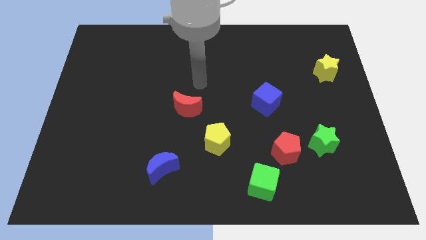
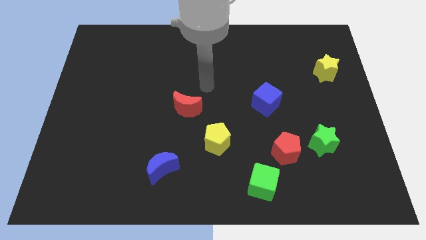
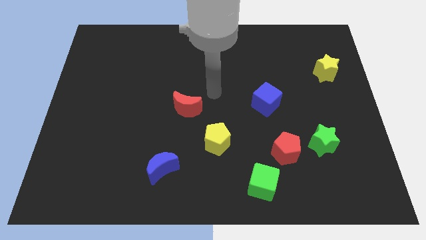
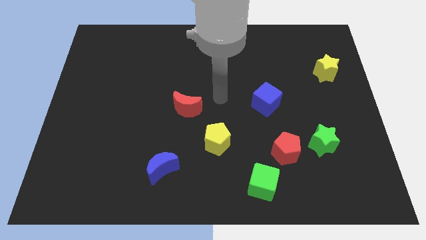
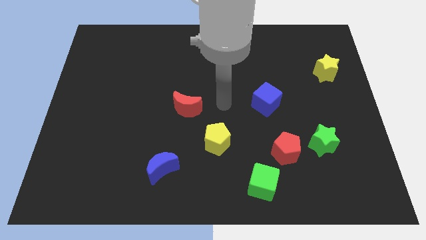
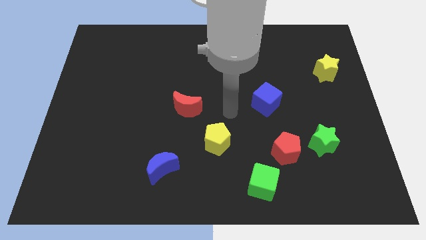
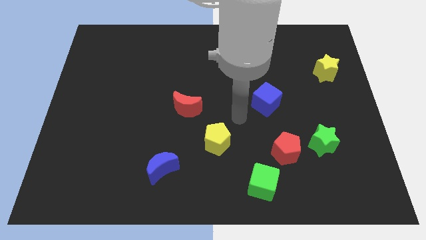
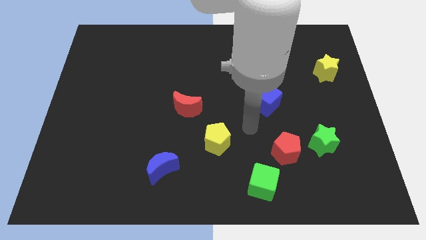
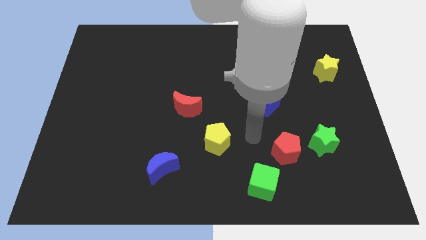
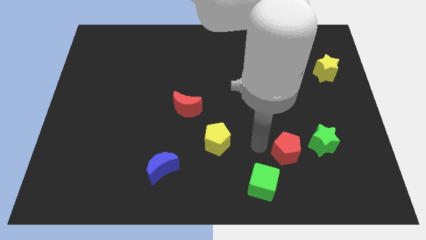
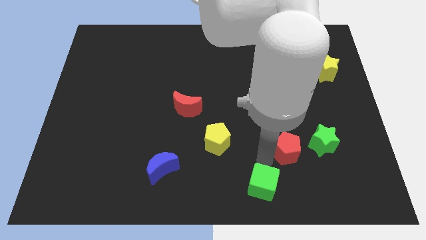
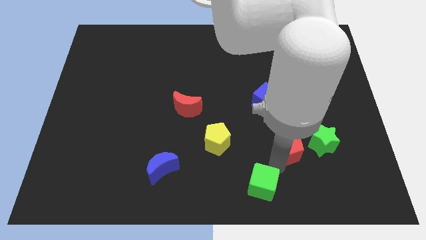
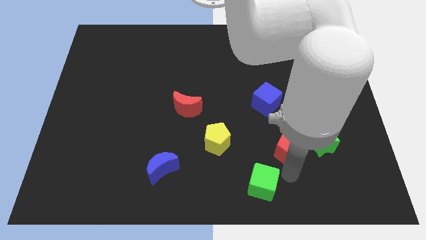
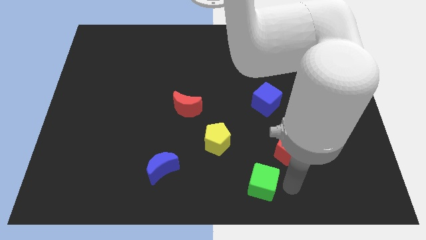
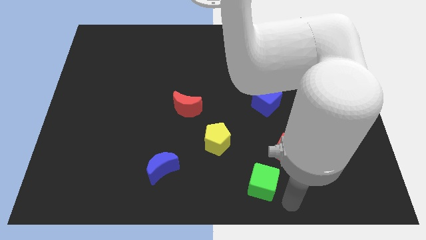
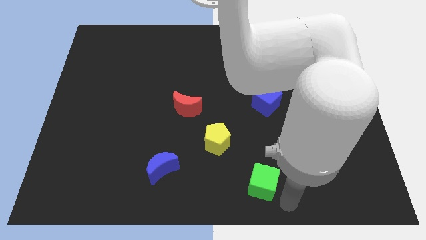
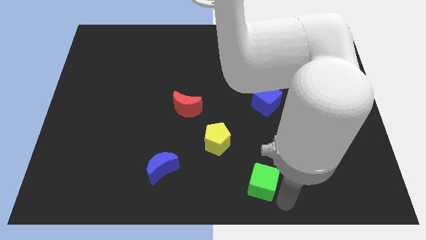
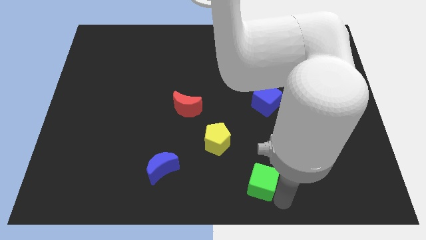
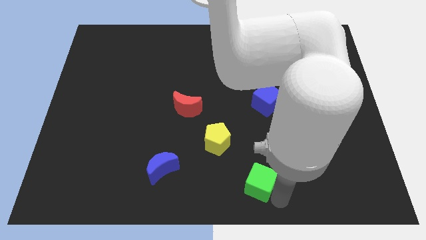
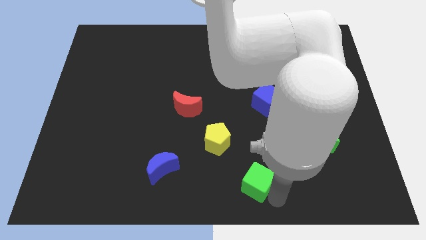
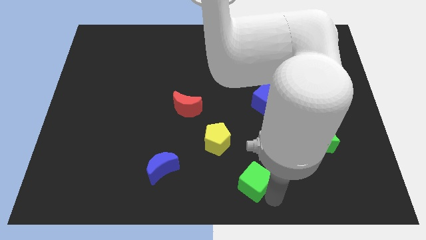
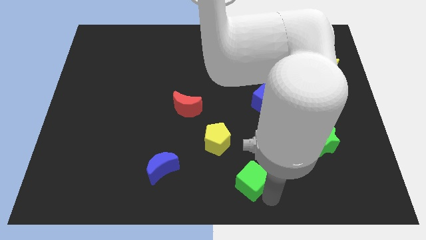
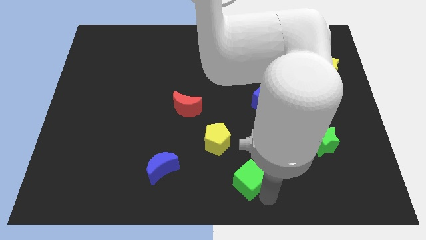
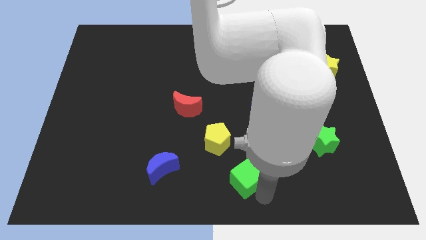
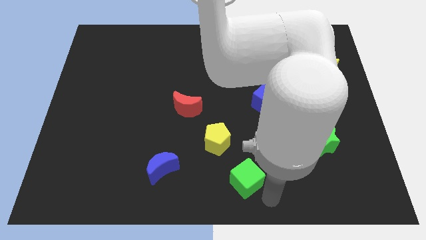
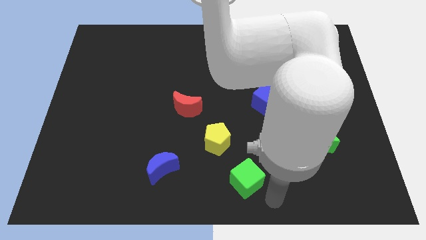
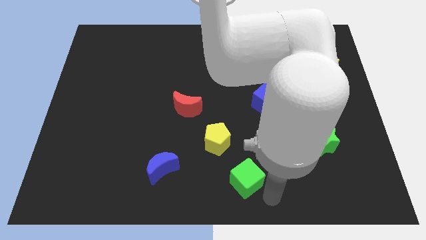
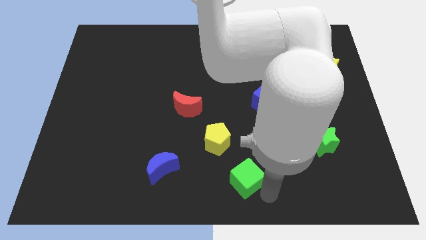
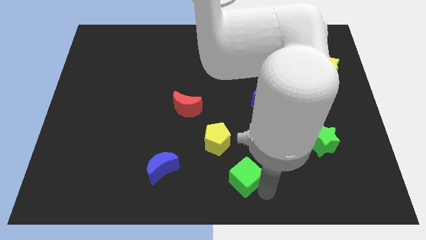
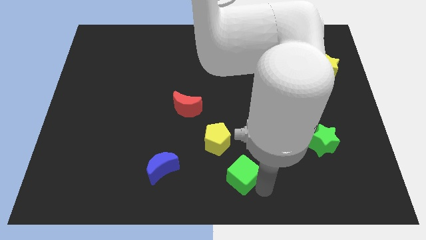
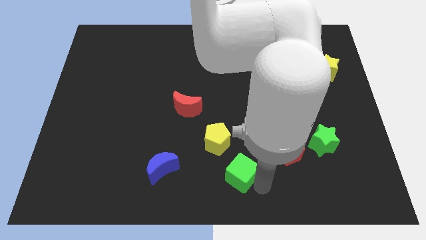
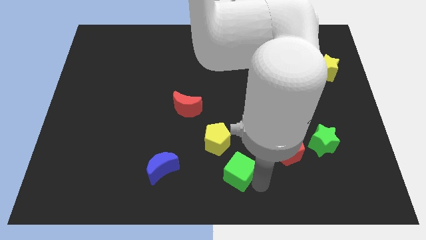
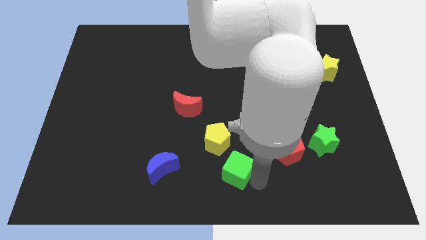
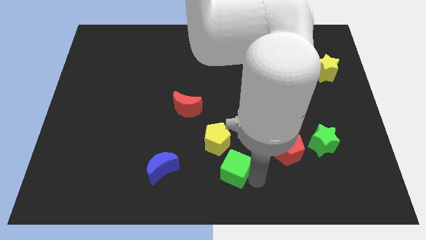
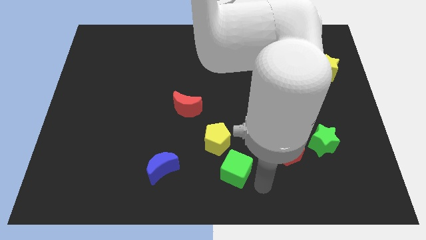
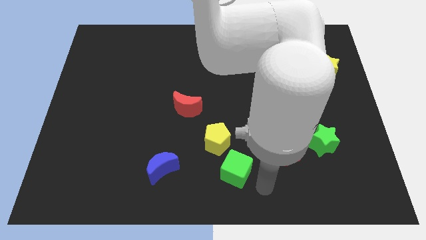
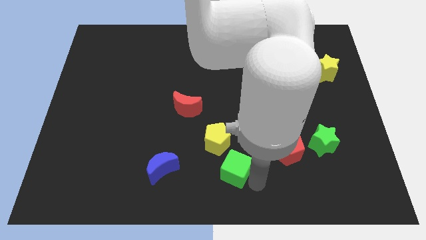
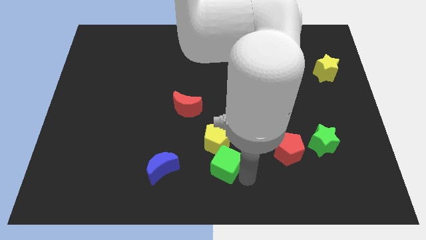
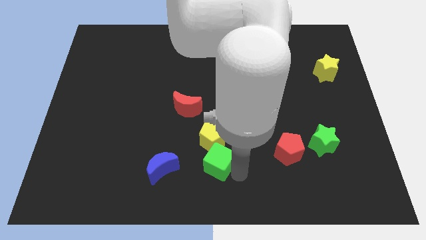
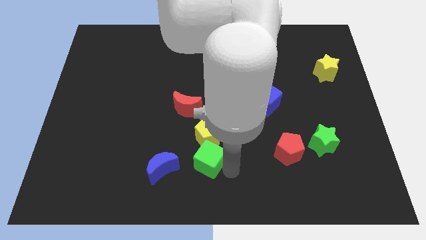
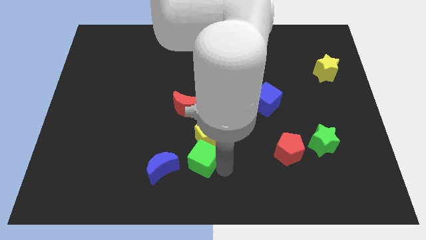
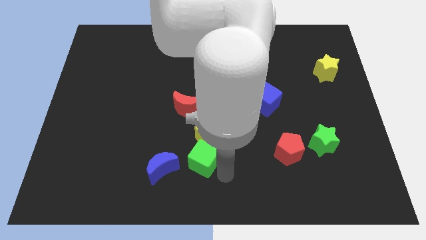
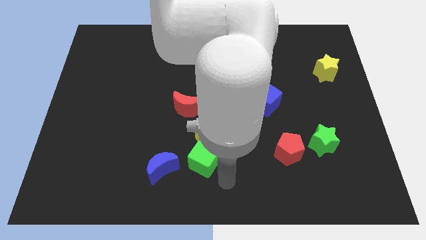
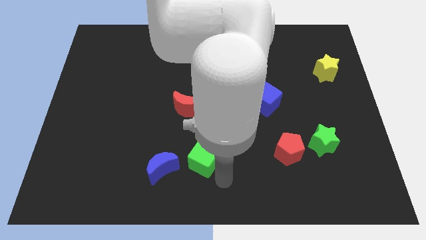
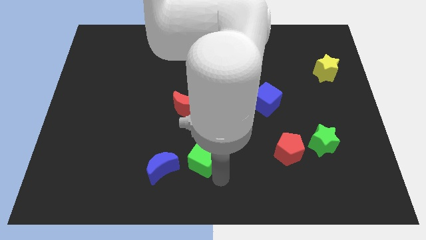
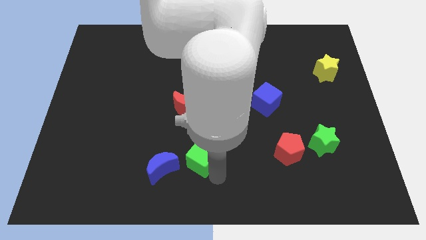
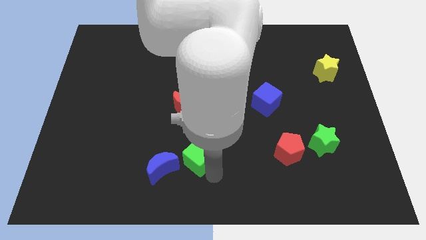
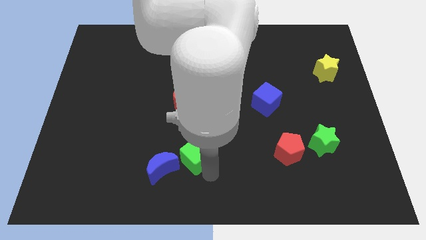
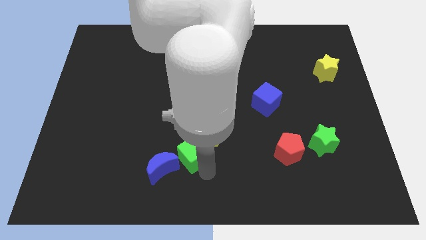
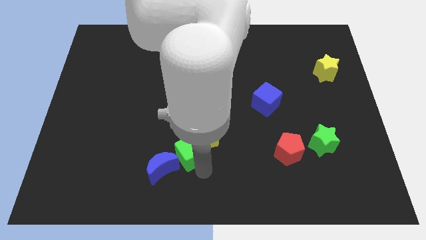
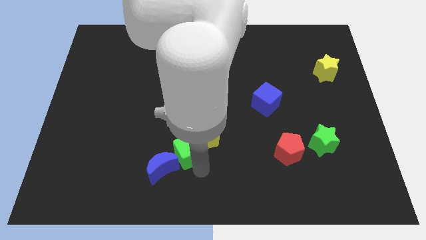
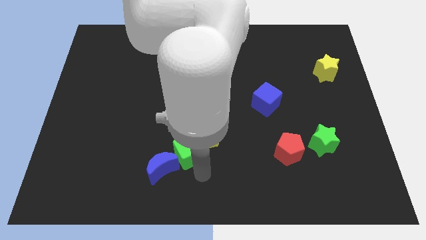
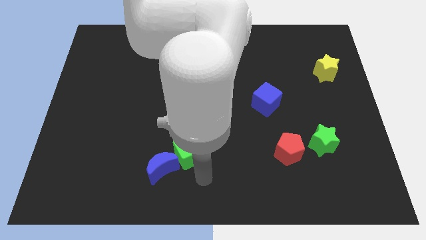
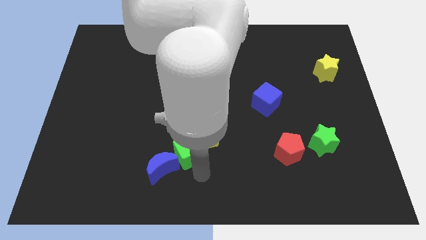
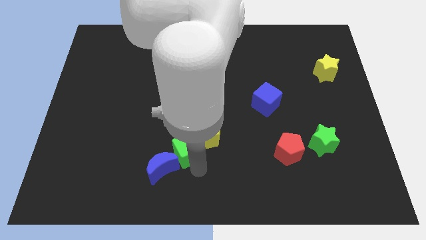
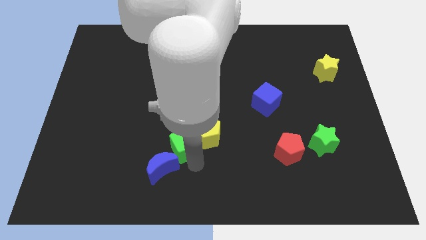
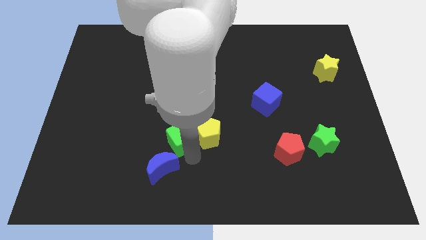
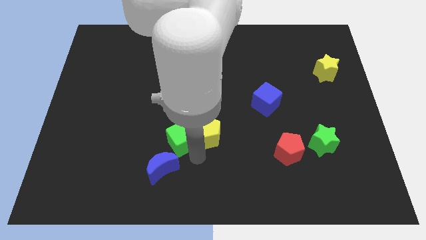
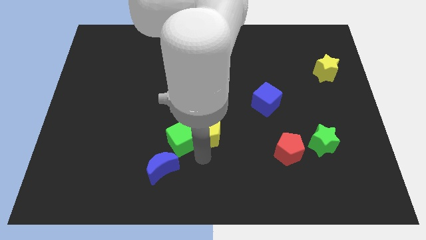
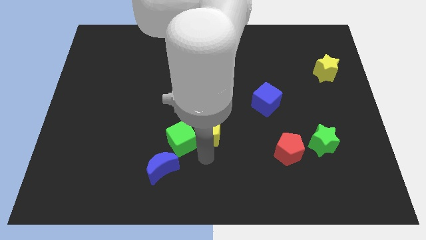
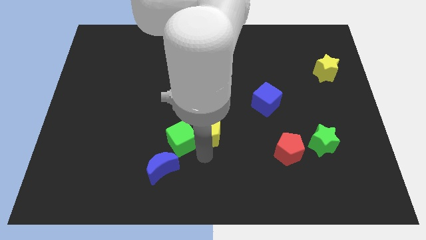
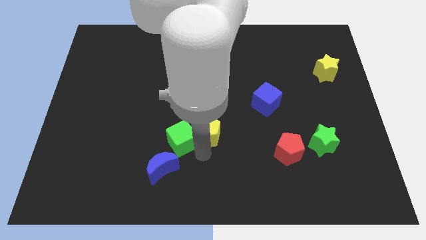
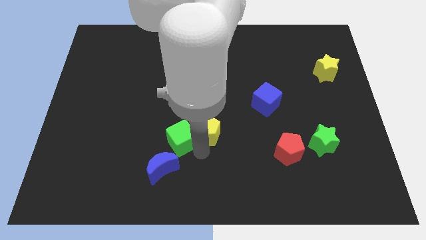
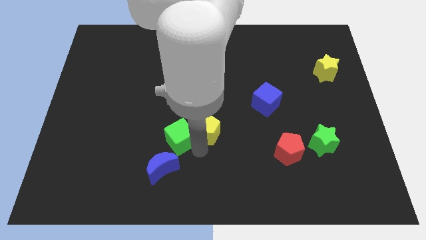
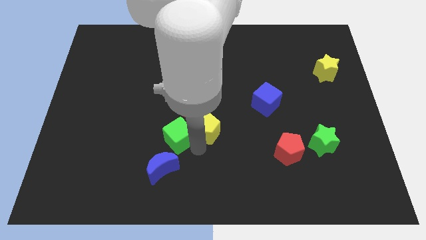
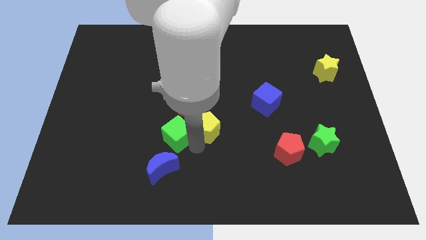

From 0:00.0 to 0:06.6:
move the green cube diagonally up and left

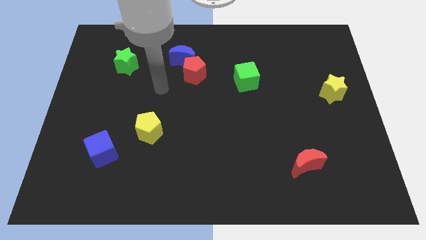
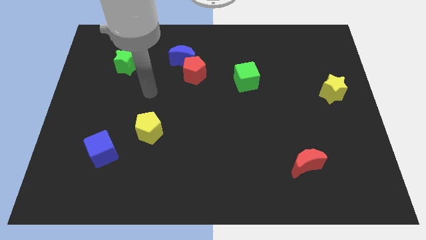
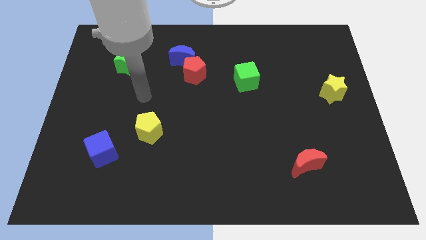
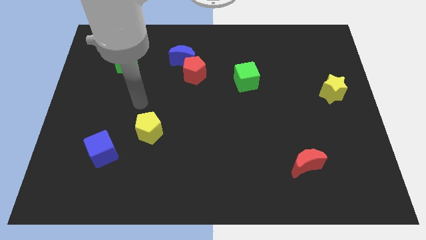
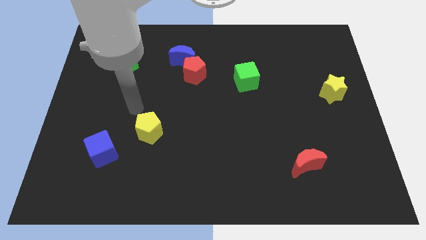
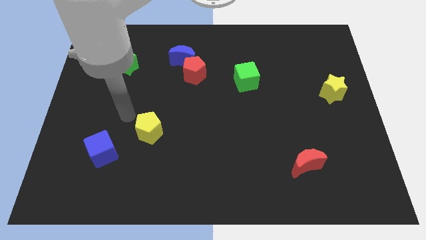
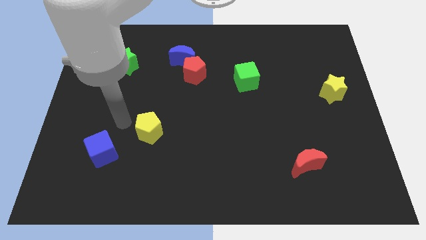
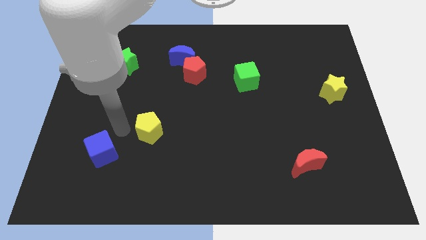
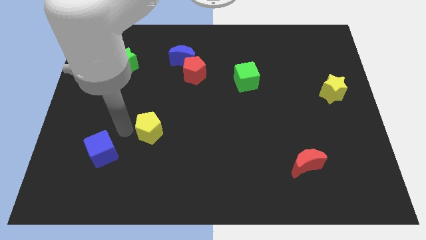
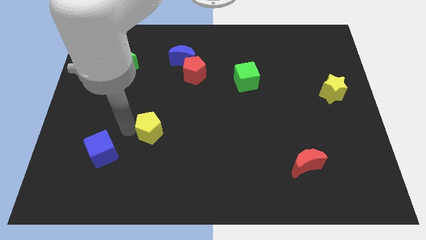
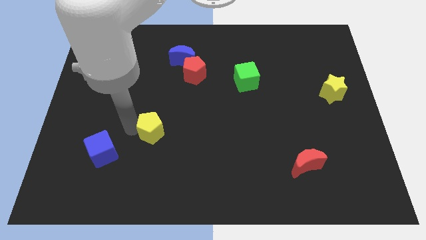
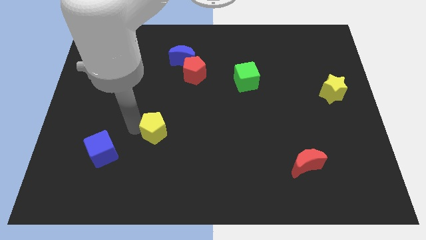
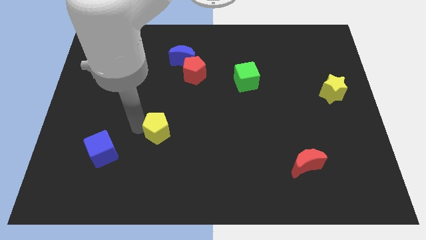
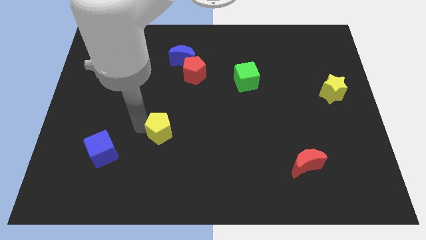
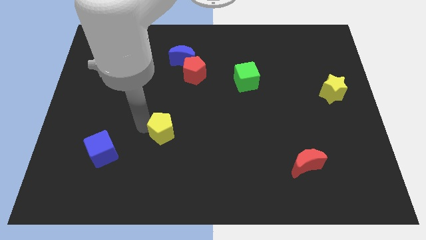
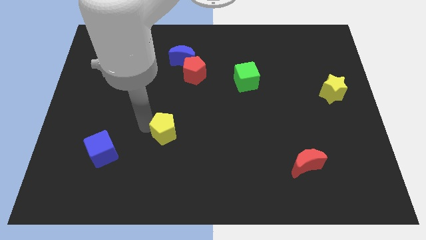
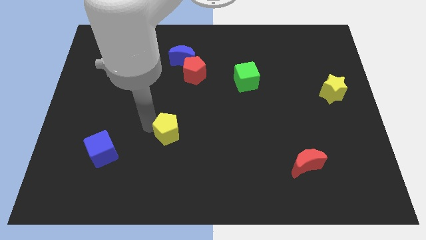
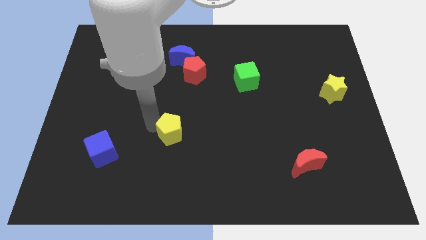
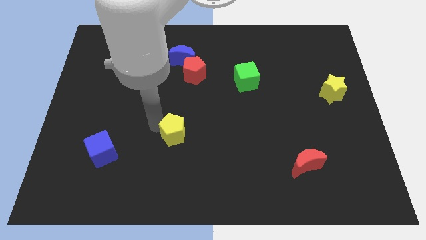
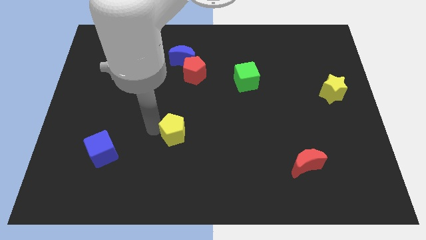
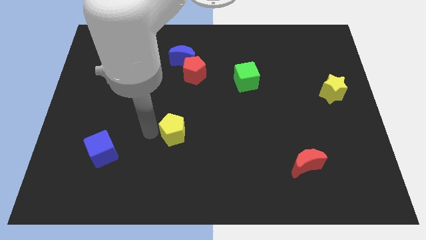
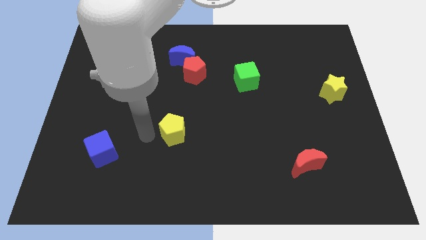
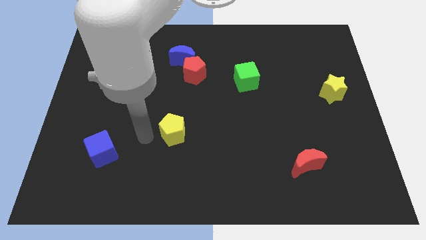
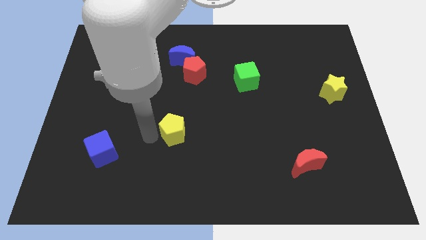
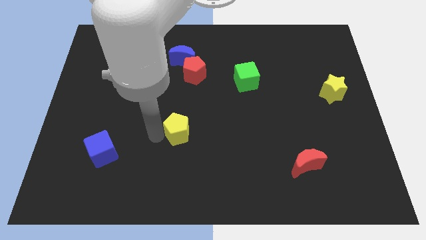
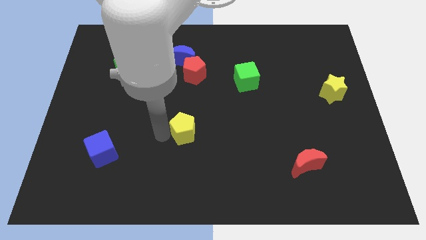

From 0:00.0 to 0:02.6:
slightly move the yellow pentagon right
